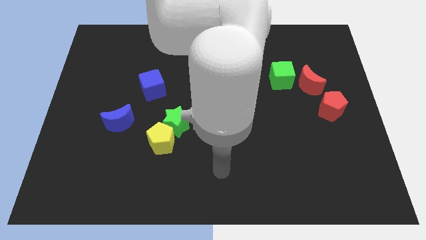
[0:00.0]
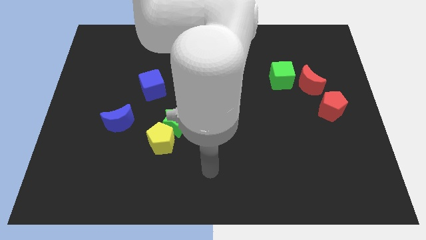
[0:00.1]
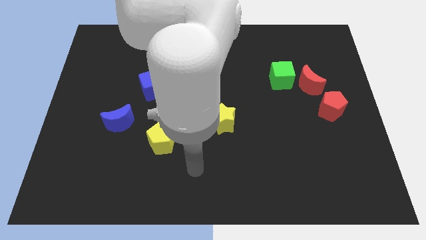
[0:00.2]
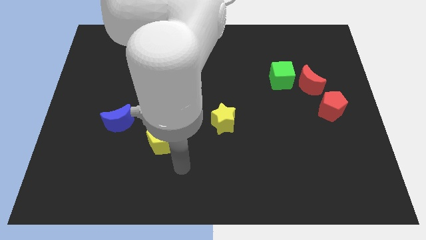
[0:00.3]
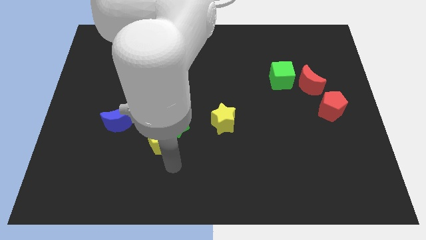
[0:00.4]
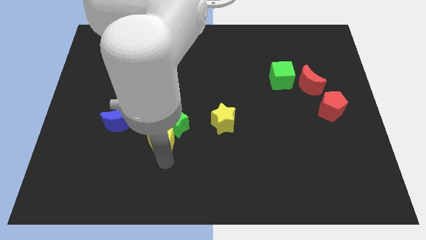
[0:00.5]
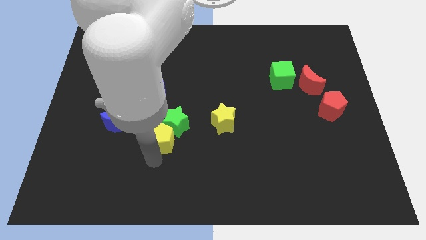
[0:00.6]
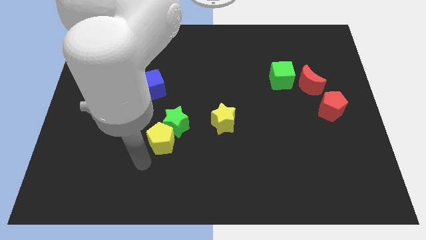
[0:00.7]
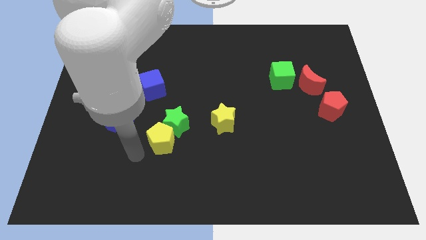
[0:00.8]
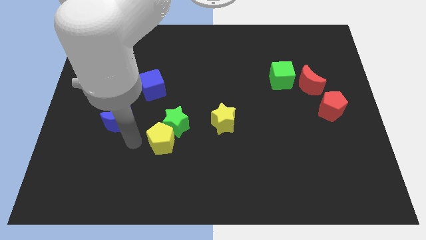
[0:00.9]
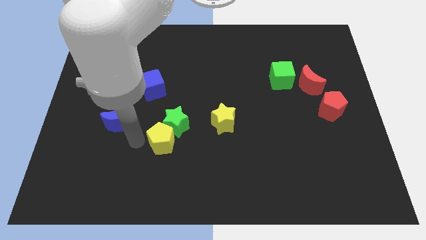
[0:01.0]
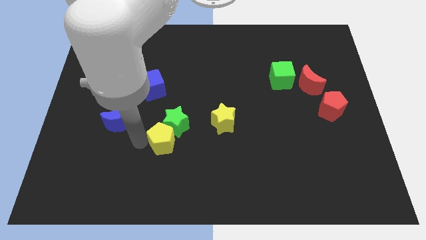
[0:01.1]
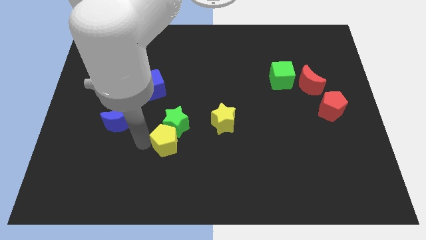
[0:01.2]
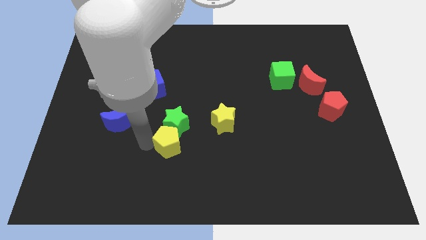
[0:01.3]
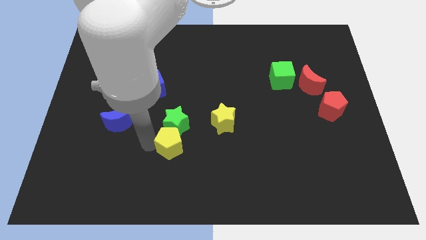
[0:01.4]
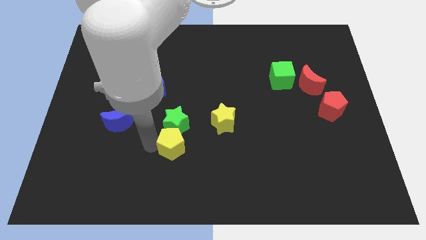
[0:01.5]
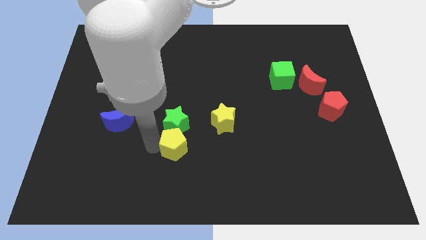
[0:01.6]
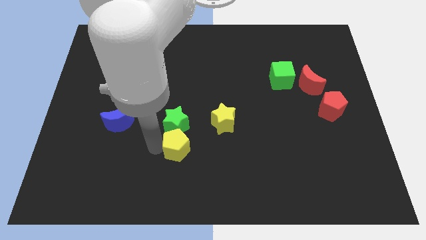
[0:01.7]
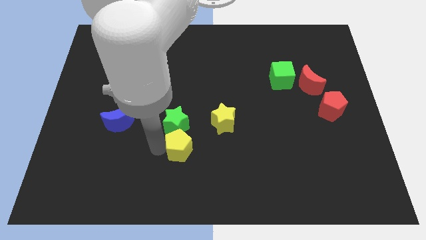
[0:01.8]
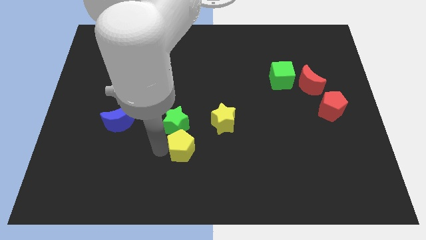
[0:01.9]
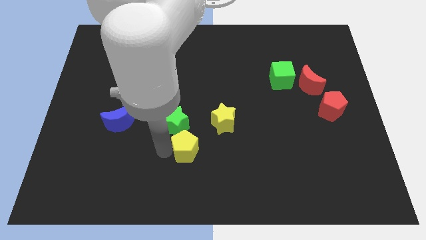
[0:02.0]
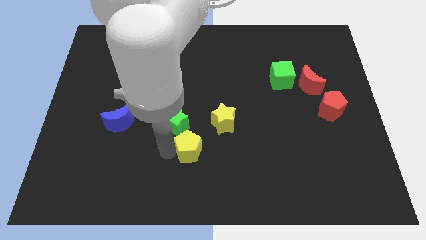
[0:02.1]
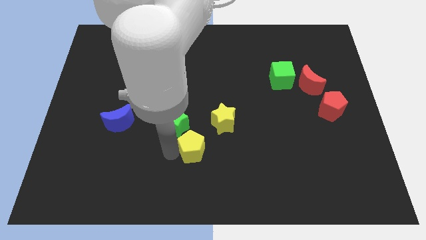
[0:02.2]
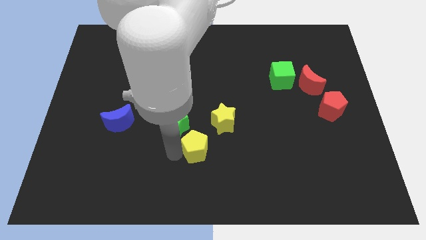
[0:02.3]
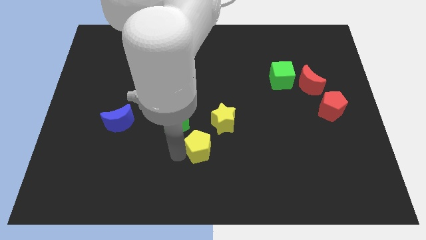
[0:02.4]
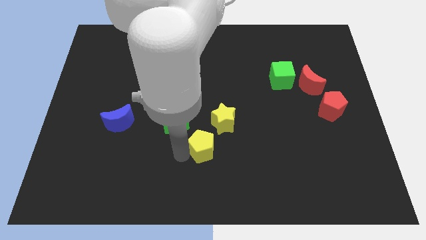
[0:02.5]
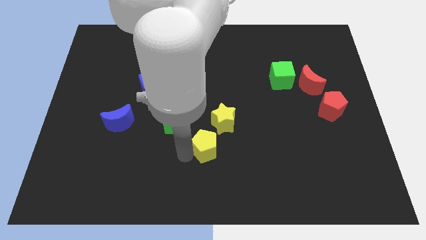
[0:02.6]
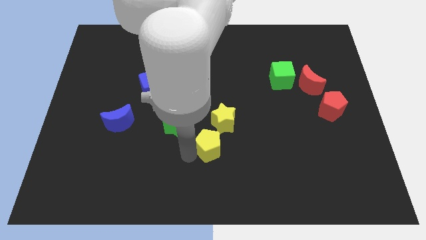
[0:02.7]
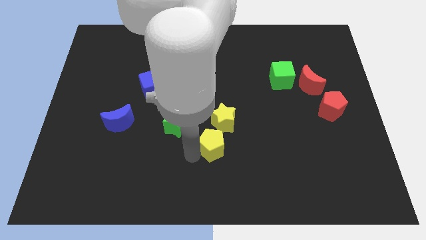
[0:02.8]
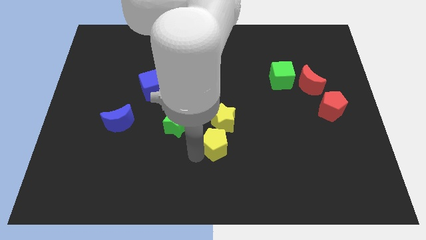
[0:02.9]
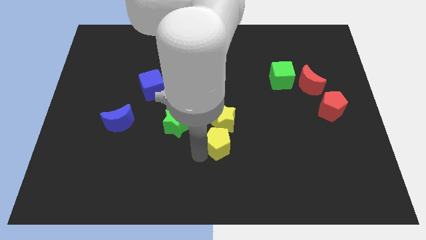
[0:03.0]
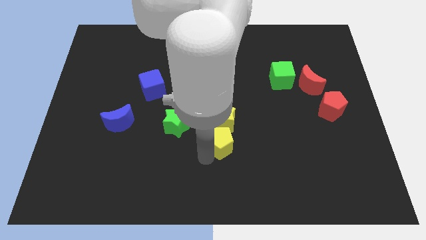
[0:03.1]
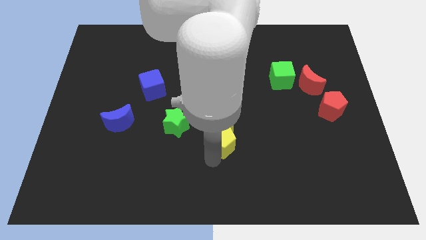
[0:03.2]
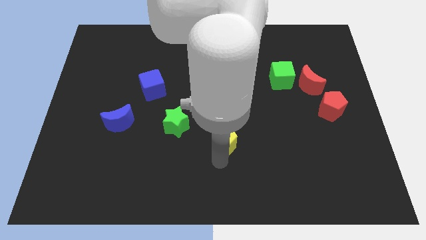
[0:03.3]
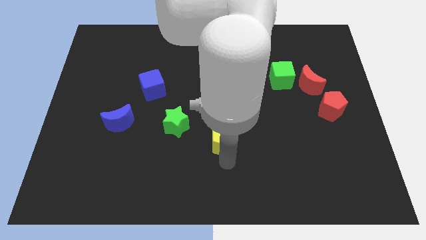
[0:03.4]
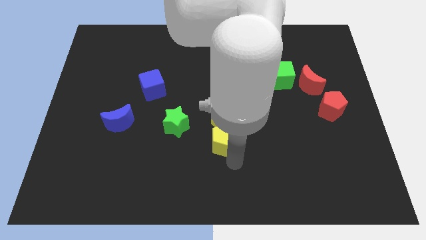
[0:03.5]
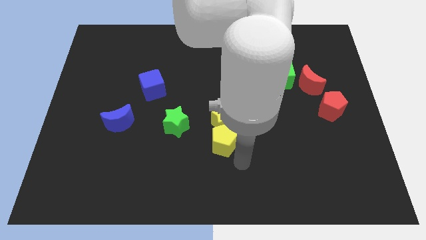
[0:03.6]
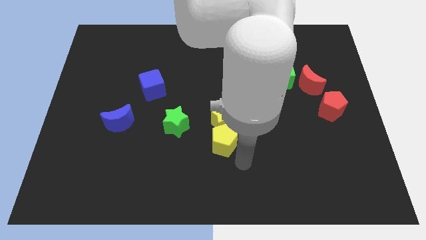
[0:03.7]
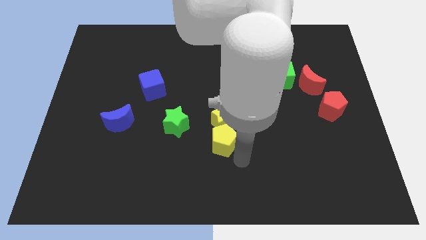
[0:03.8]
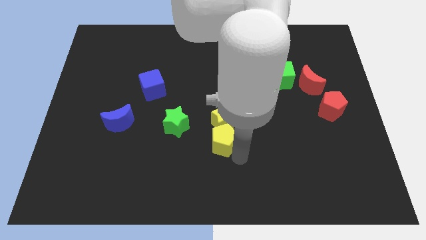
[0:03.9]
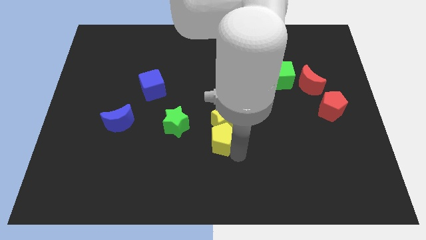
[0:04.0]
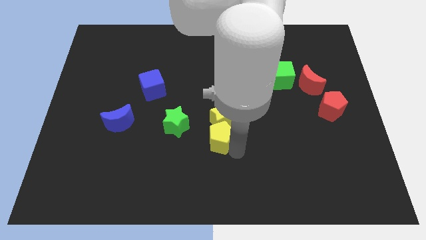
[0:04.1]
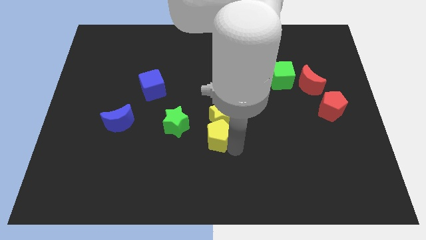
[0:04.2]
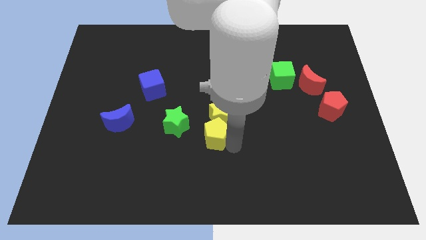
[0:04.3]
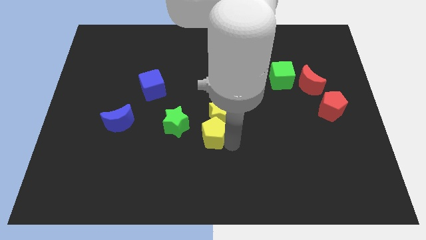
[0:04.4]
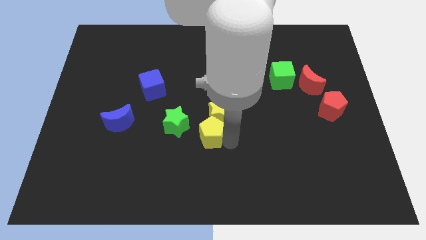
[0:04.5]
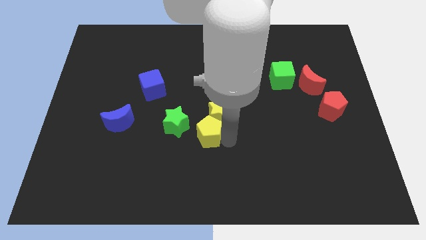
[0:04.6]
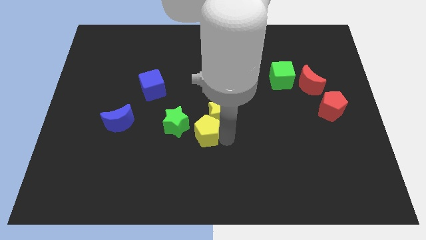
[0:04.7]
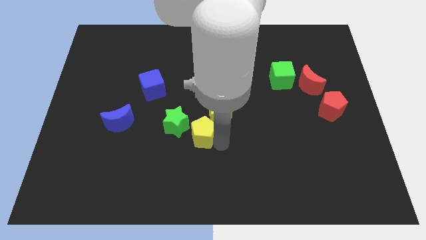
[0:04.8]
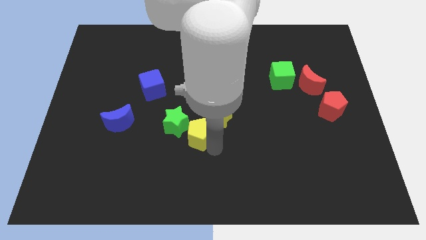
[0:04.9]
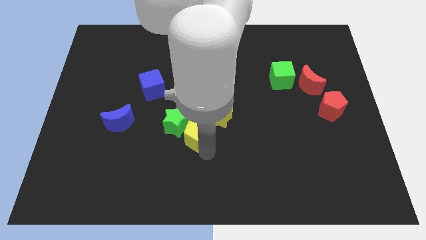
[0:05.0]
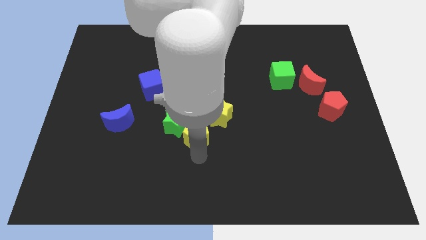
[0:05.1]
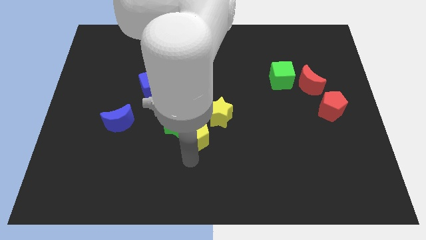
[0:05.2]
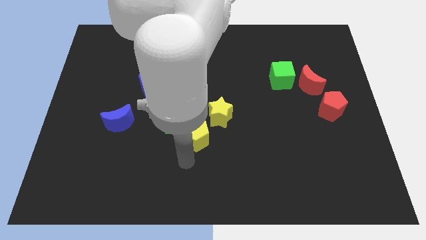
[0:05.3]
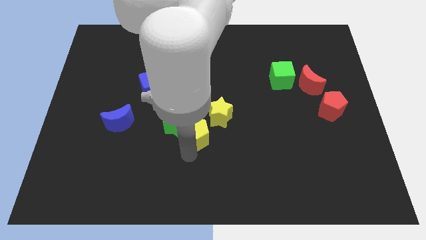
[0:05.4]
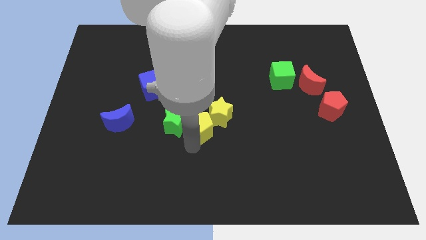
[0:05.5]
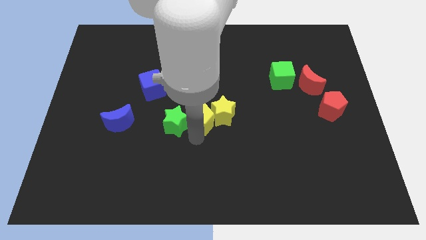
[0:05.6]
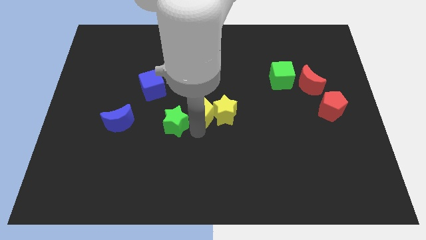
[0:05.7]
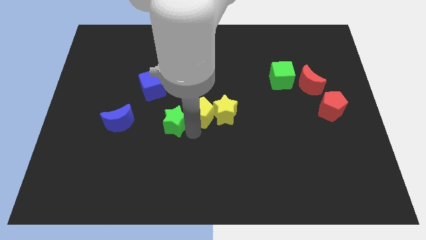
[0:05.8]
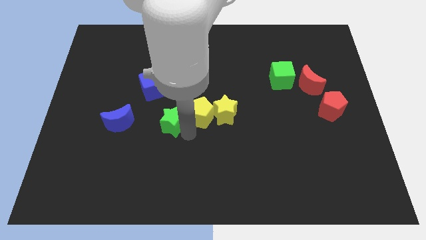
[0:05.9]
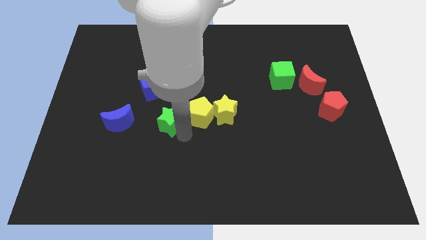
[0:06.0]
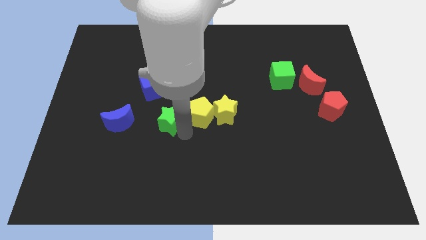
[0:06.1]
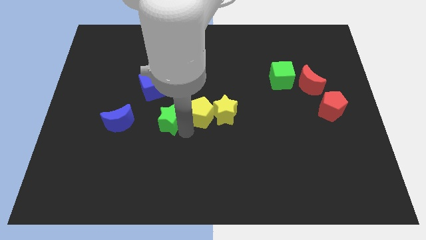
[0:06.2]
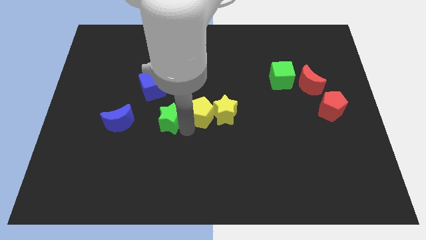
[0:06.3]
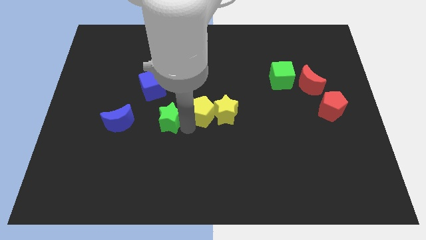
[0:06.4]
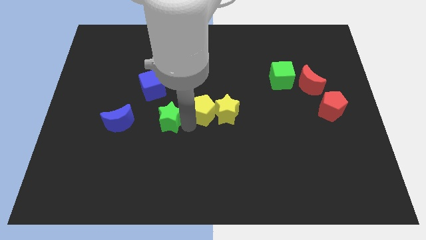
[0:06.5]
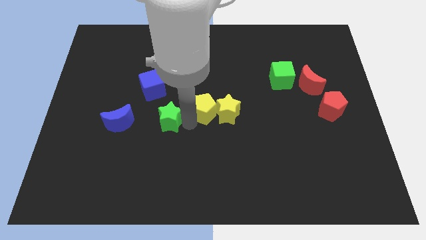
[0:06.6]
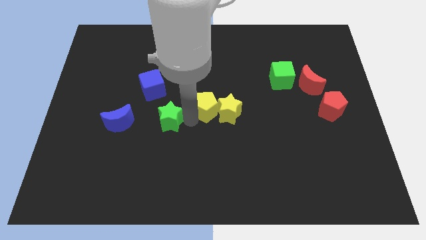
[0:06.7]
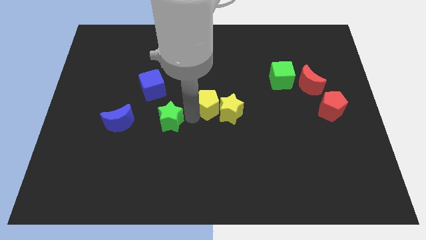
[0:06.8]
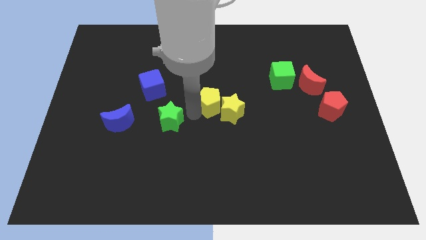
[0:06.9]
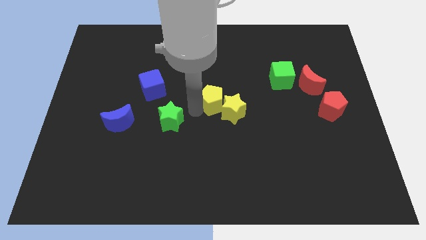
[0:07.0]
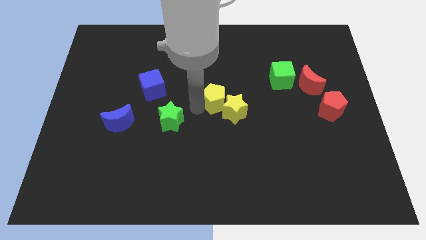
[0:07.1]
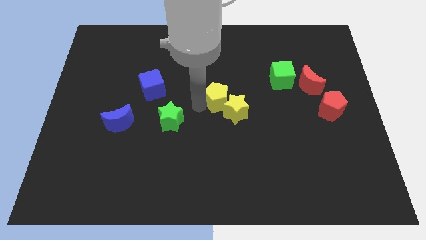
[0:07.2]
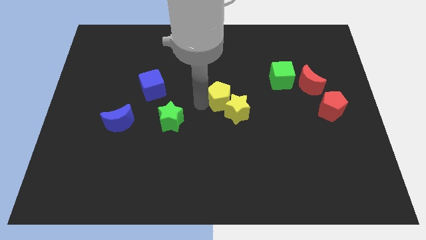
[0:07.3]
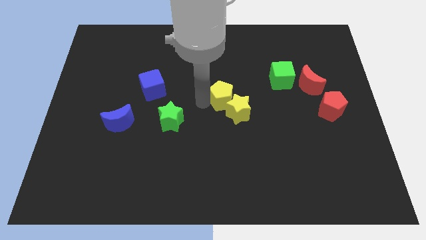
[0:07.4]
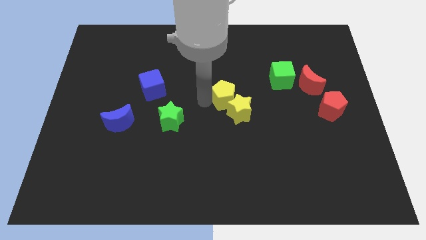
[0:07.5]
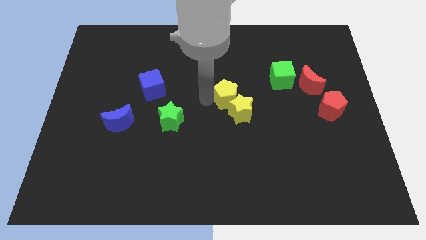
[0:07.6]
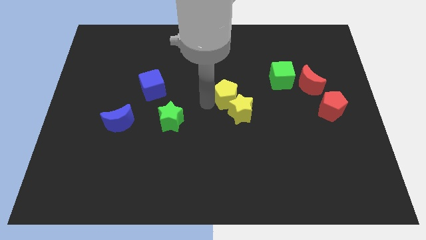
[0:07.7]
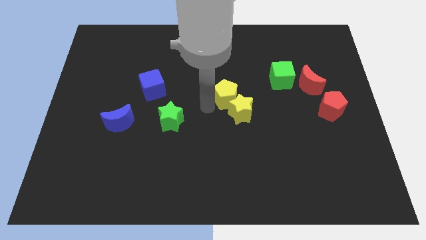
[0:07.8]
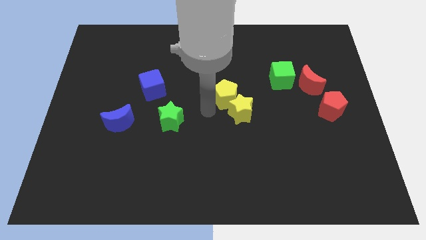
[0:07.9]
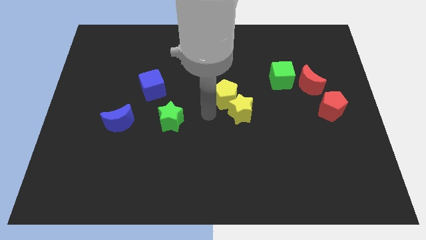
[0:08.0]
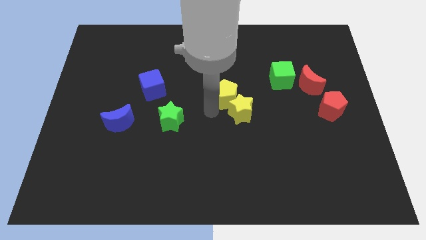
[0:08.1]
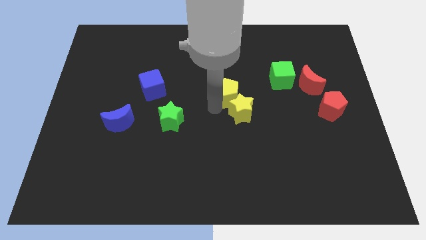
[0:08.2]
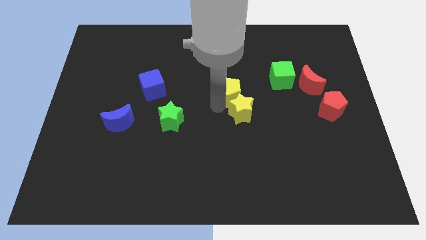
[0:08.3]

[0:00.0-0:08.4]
push the yellow pentagon upwards and right diagonally
